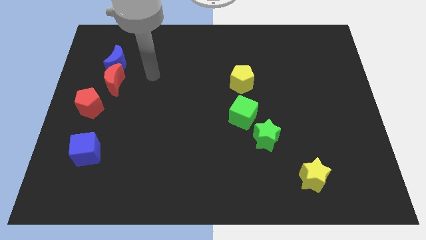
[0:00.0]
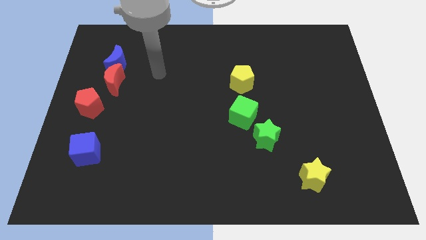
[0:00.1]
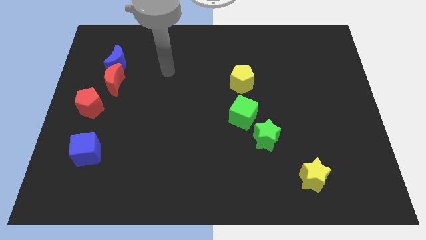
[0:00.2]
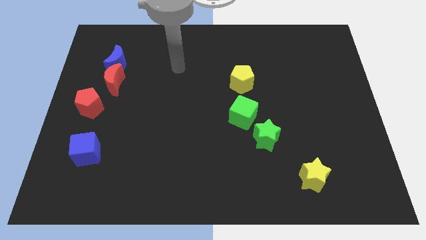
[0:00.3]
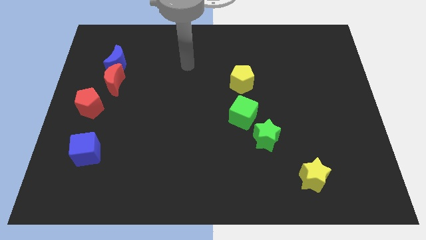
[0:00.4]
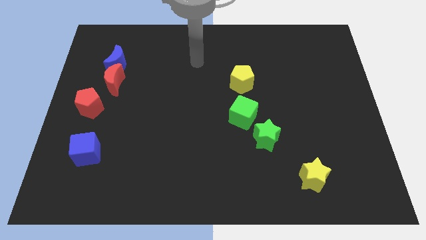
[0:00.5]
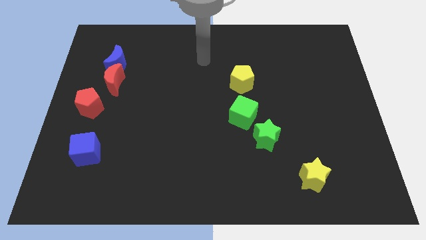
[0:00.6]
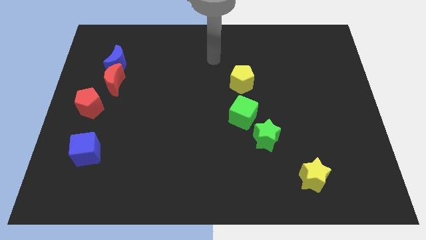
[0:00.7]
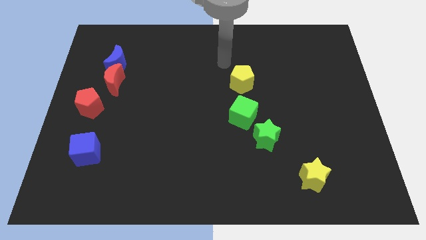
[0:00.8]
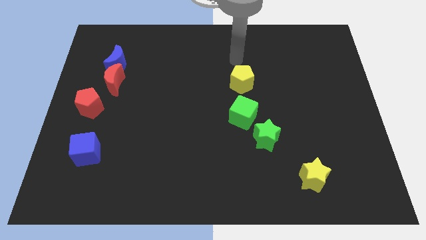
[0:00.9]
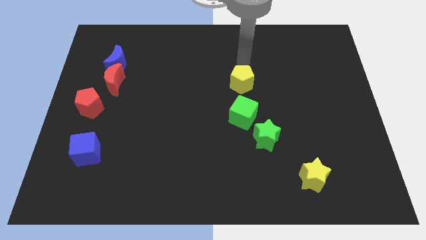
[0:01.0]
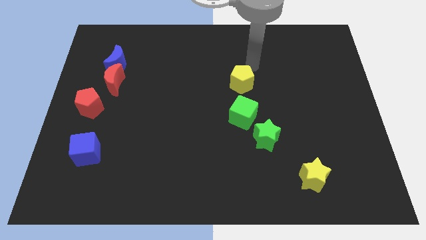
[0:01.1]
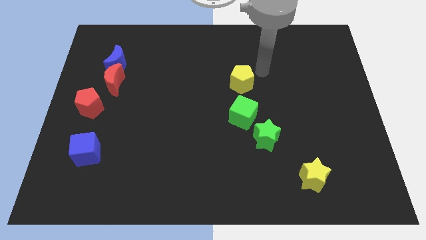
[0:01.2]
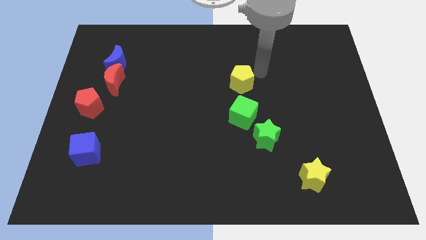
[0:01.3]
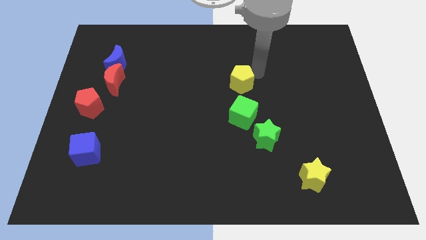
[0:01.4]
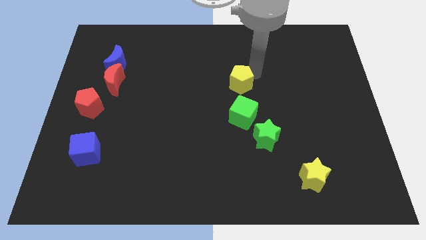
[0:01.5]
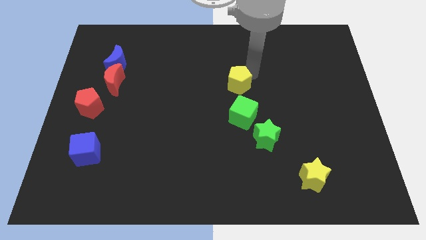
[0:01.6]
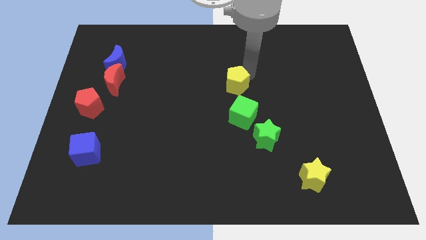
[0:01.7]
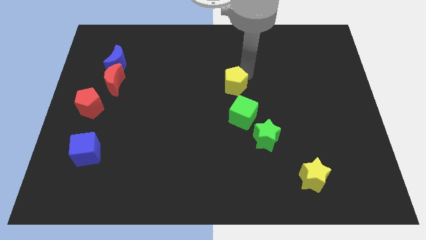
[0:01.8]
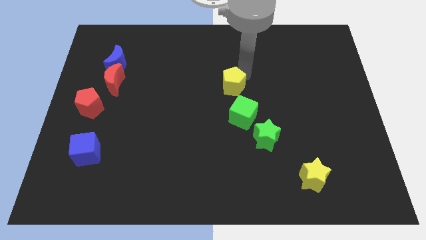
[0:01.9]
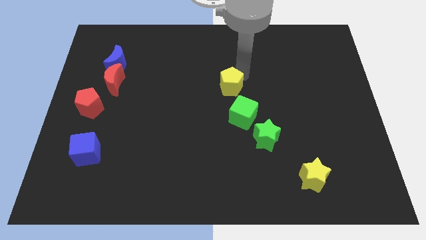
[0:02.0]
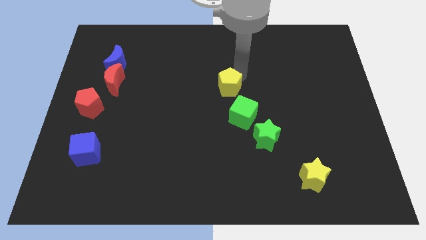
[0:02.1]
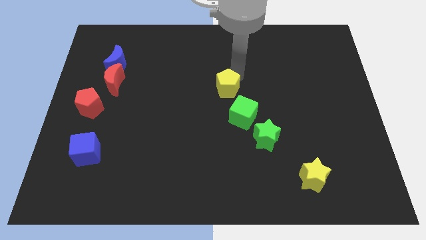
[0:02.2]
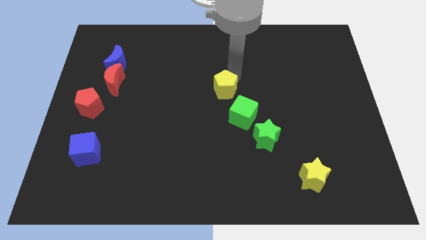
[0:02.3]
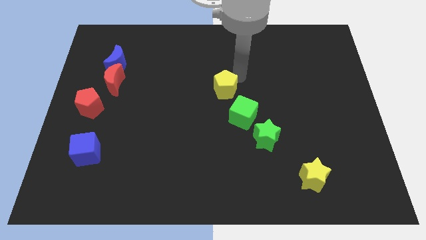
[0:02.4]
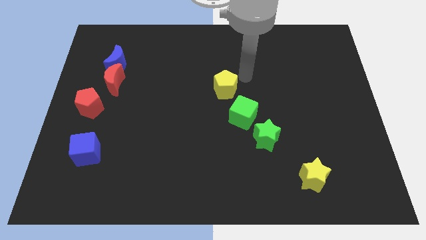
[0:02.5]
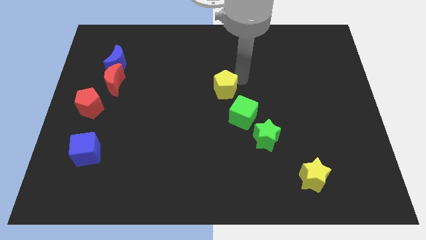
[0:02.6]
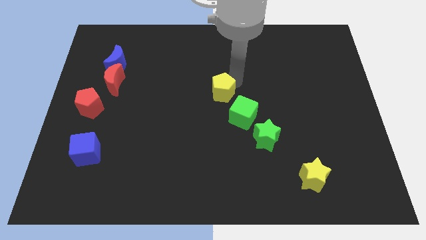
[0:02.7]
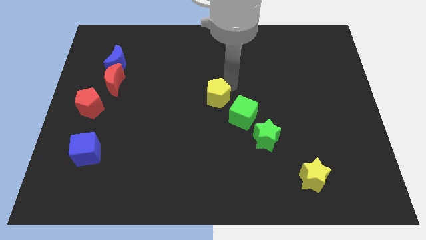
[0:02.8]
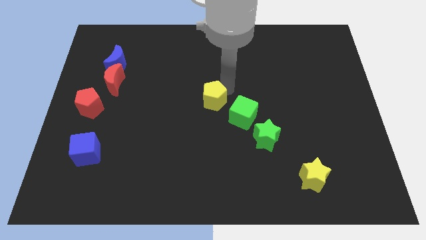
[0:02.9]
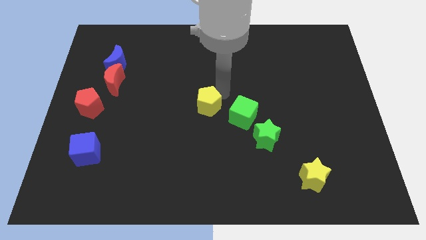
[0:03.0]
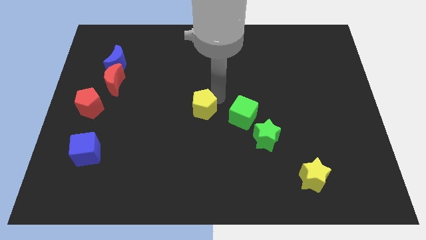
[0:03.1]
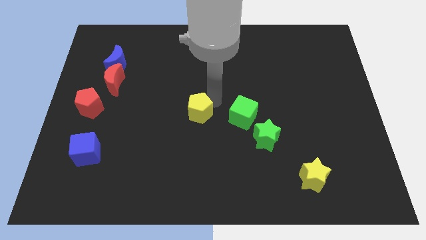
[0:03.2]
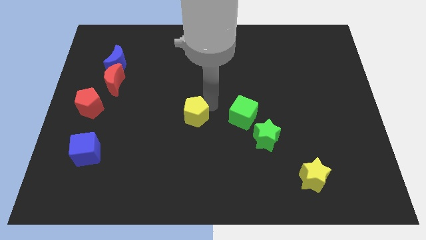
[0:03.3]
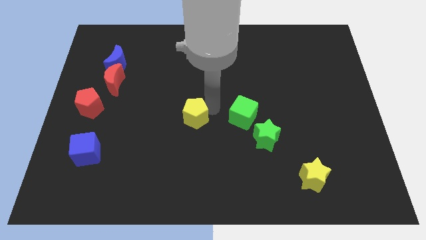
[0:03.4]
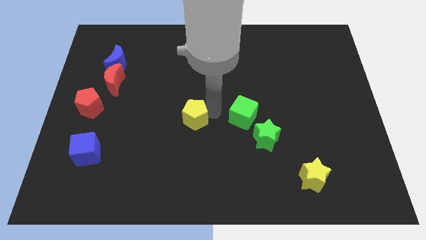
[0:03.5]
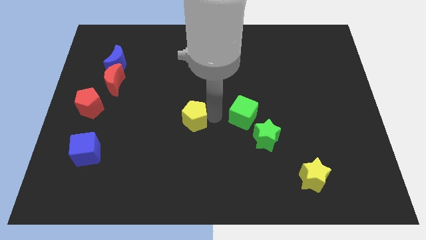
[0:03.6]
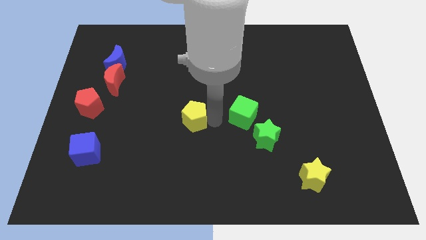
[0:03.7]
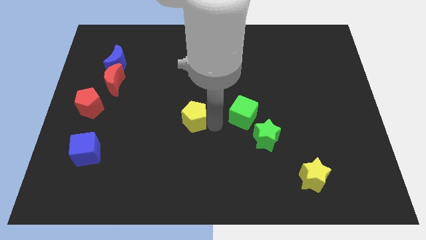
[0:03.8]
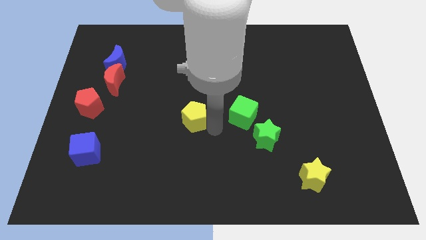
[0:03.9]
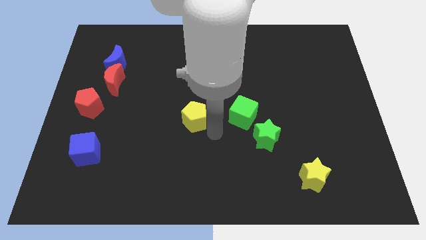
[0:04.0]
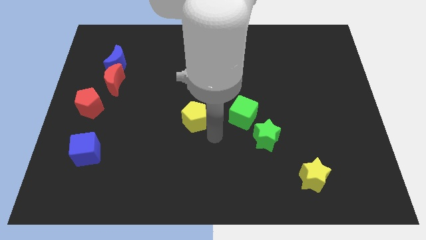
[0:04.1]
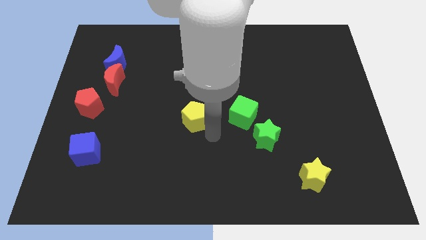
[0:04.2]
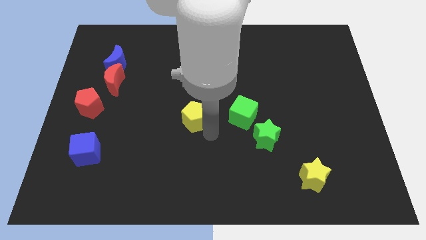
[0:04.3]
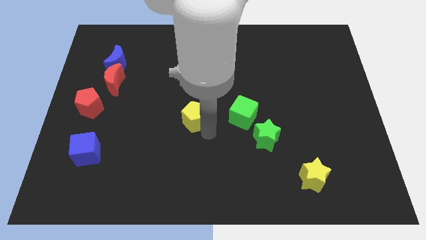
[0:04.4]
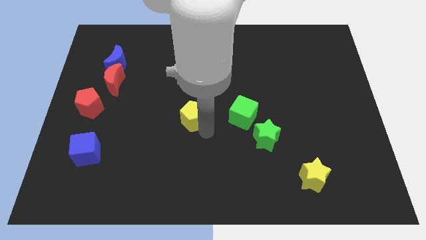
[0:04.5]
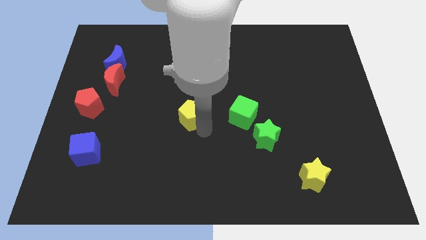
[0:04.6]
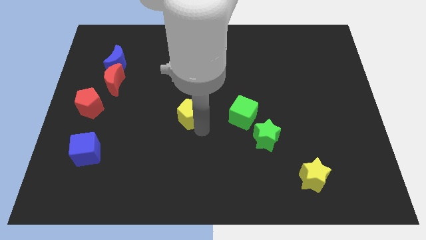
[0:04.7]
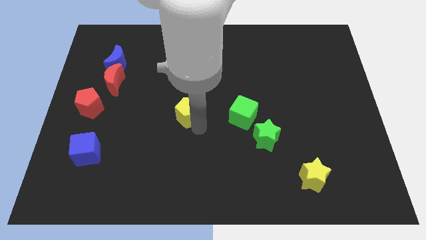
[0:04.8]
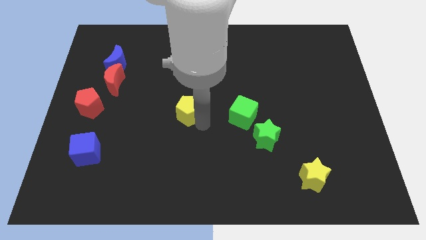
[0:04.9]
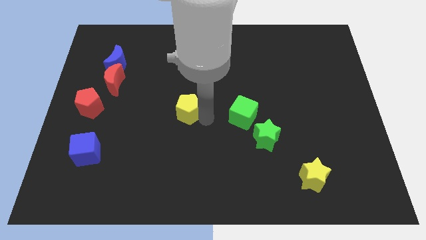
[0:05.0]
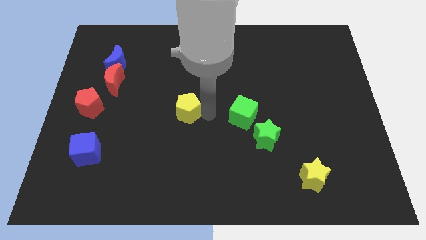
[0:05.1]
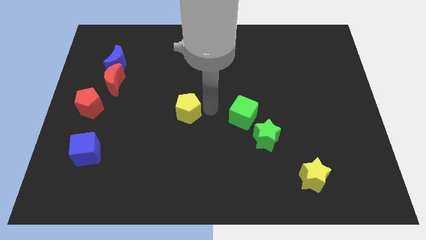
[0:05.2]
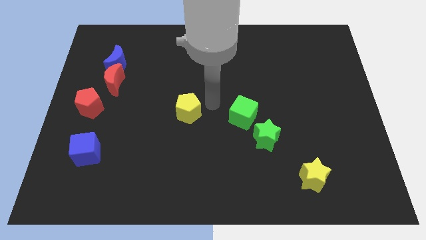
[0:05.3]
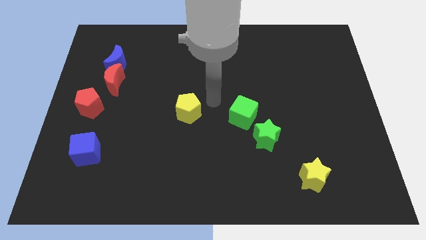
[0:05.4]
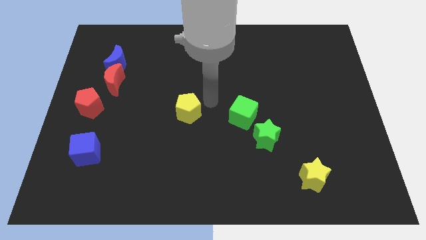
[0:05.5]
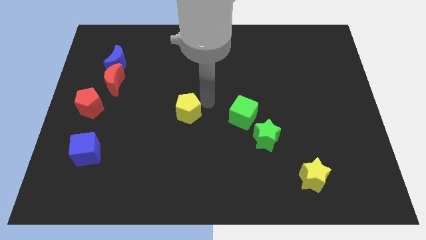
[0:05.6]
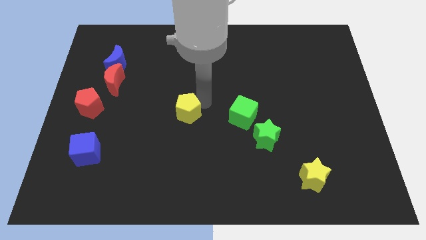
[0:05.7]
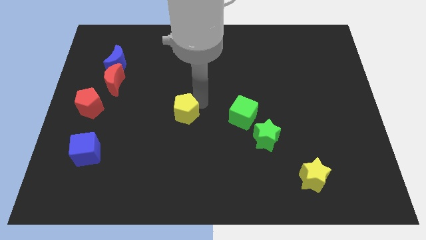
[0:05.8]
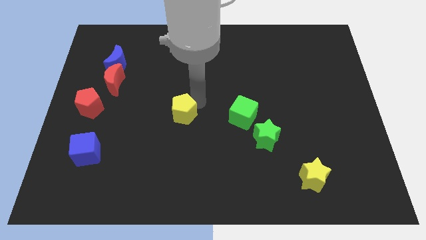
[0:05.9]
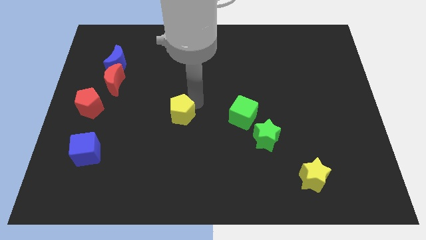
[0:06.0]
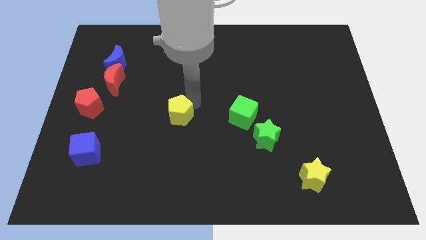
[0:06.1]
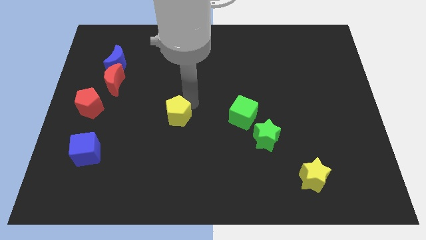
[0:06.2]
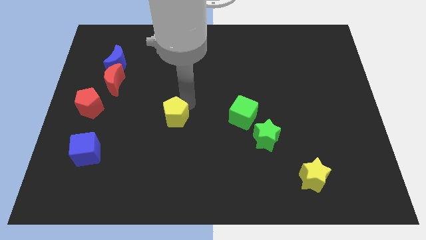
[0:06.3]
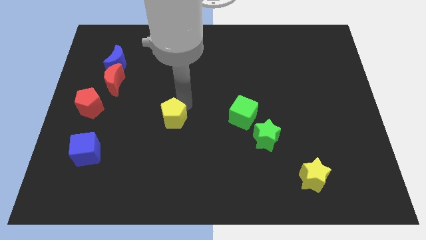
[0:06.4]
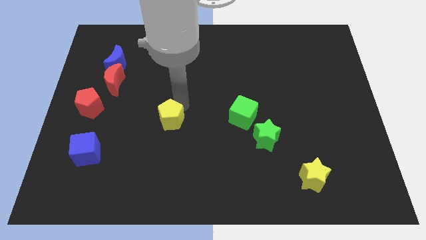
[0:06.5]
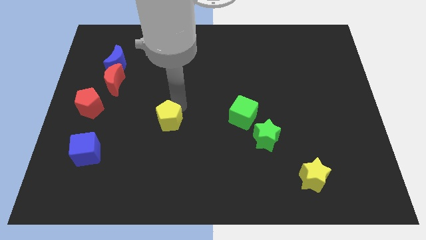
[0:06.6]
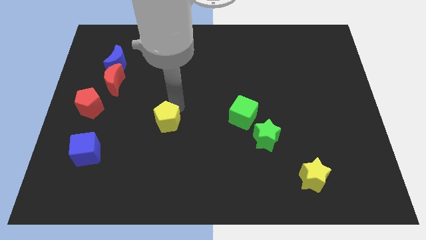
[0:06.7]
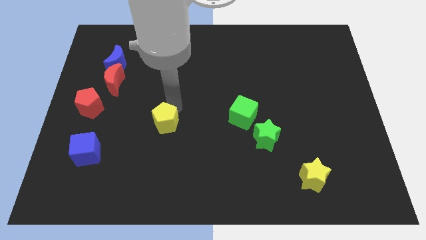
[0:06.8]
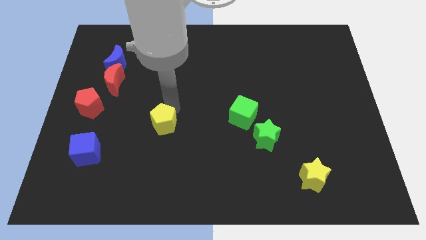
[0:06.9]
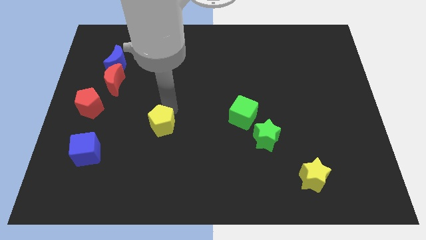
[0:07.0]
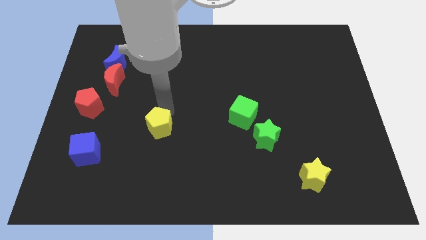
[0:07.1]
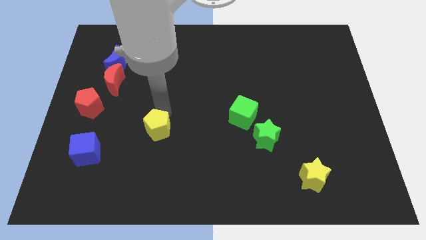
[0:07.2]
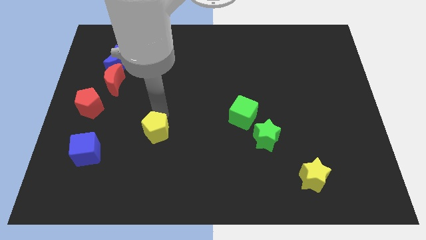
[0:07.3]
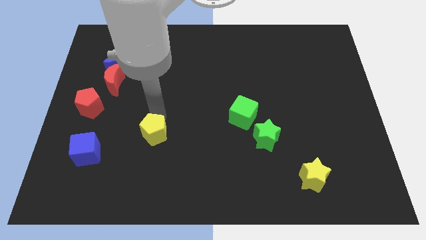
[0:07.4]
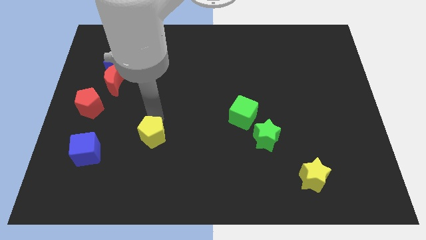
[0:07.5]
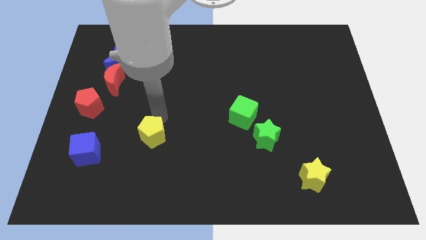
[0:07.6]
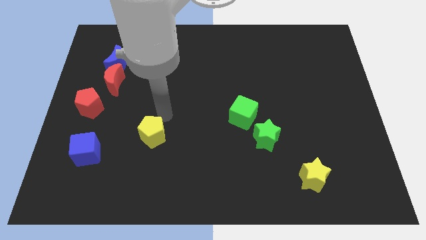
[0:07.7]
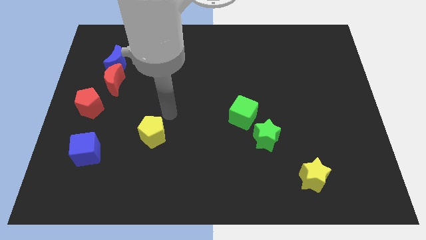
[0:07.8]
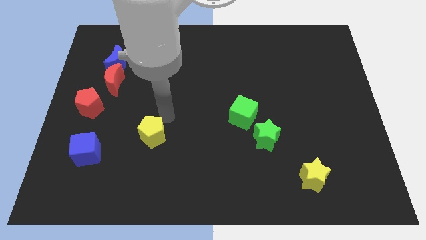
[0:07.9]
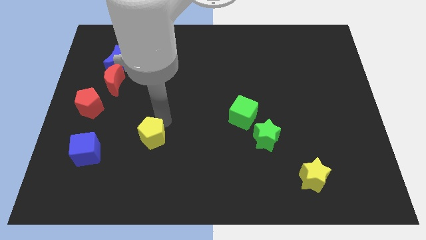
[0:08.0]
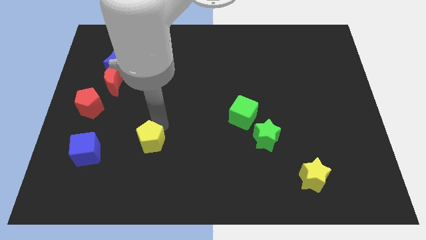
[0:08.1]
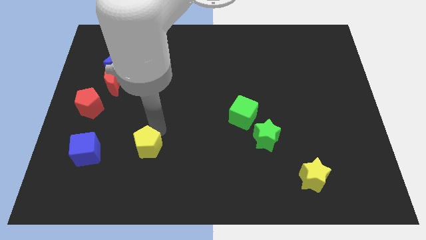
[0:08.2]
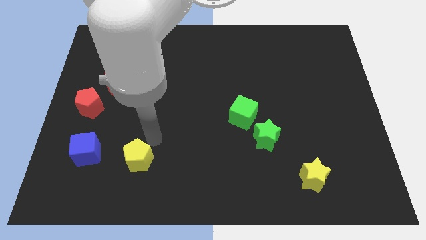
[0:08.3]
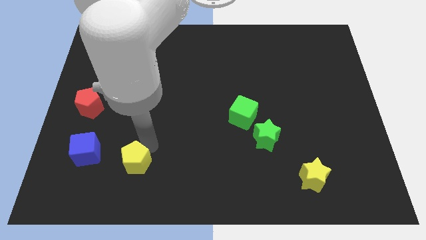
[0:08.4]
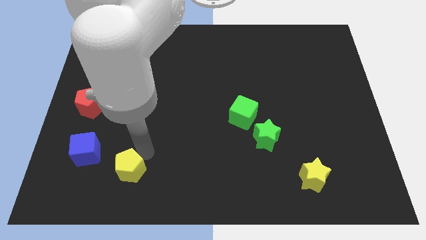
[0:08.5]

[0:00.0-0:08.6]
put the yellow pentagon diagonally down and to the right of the blue cube
